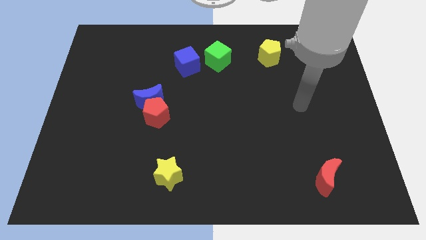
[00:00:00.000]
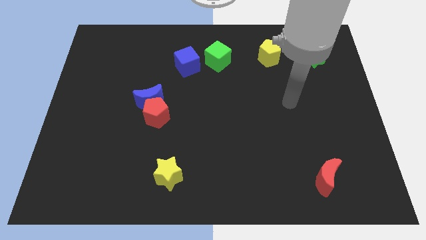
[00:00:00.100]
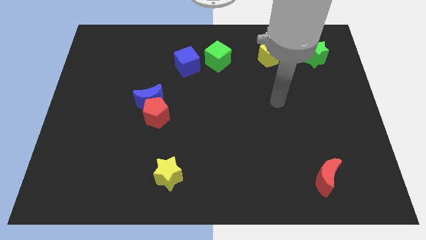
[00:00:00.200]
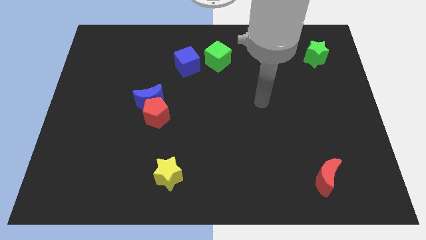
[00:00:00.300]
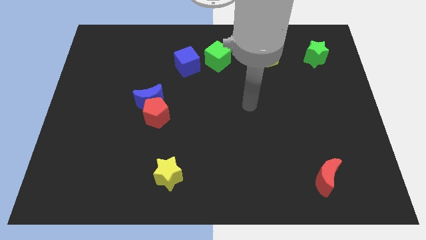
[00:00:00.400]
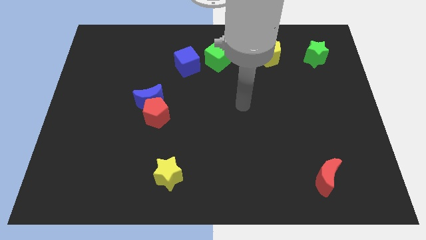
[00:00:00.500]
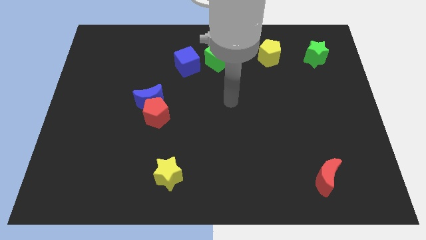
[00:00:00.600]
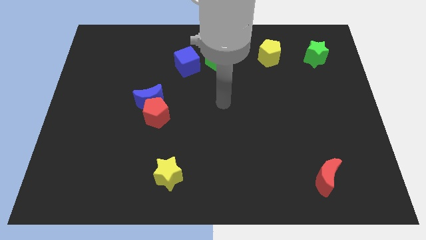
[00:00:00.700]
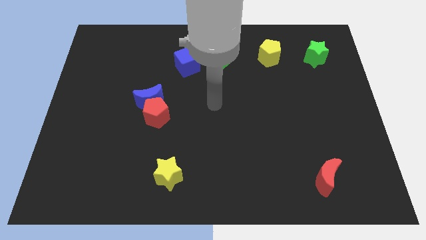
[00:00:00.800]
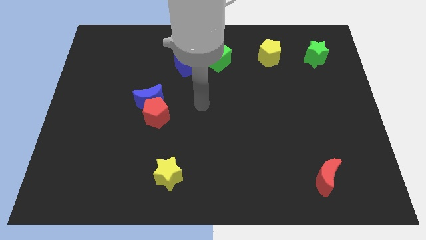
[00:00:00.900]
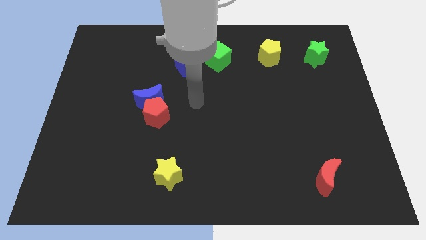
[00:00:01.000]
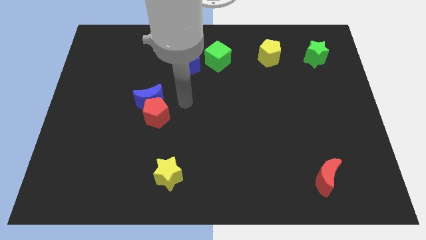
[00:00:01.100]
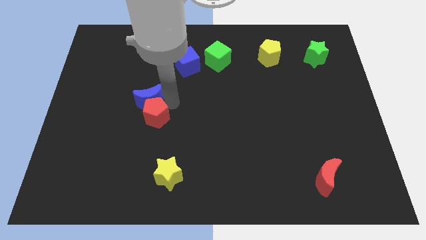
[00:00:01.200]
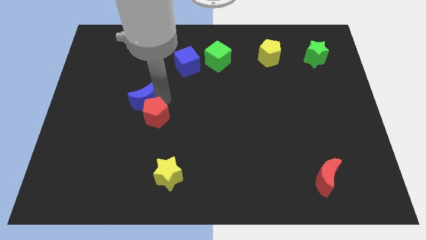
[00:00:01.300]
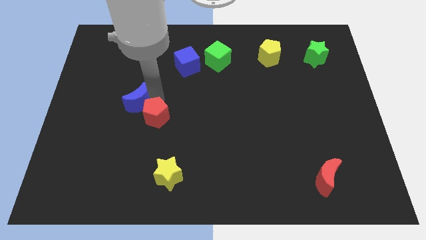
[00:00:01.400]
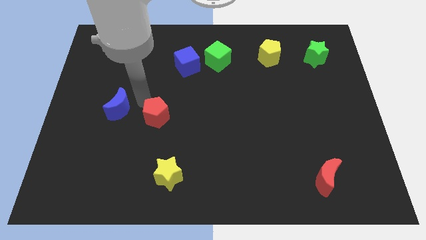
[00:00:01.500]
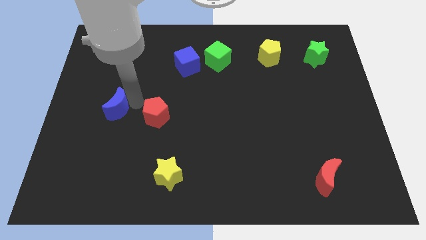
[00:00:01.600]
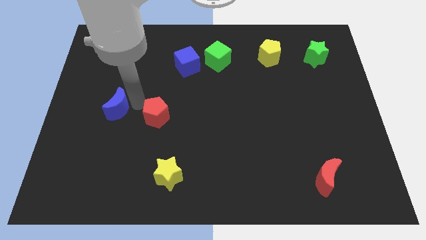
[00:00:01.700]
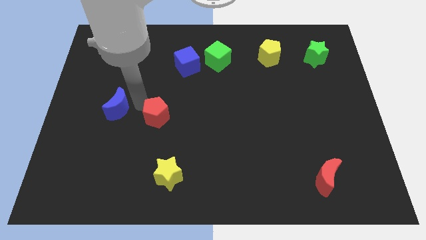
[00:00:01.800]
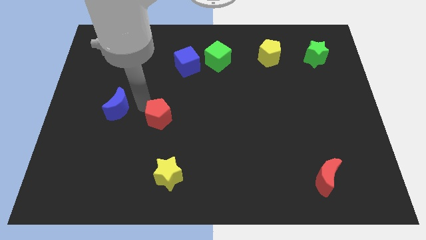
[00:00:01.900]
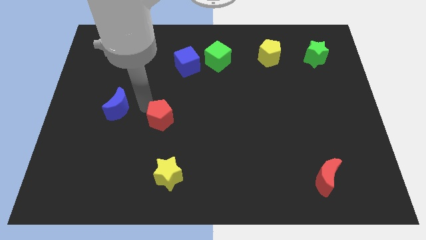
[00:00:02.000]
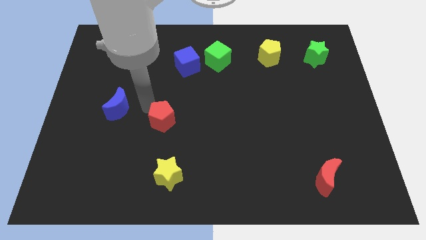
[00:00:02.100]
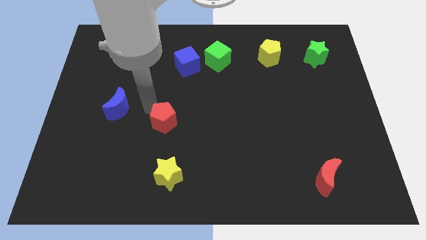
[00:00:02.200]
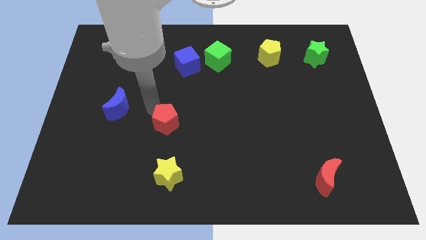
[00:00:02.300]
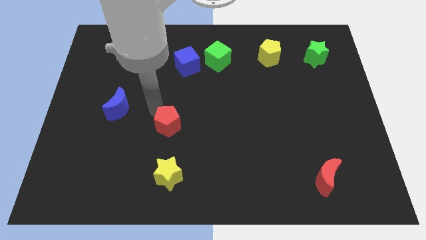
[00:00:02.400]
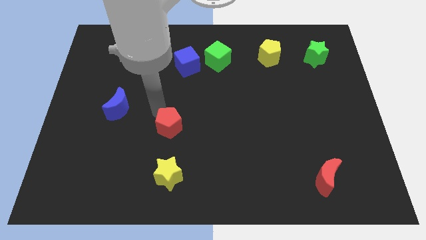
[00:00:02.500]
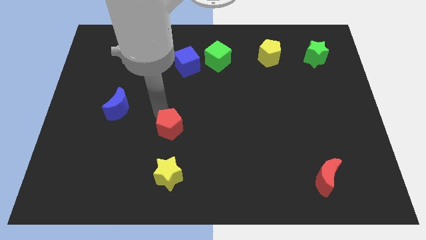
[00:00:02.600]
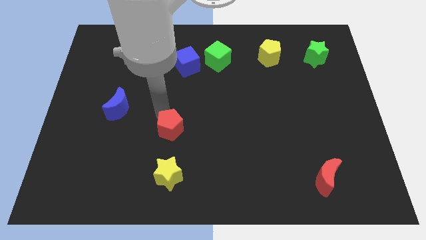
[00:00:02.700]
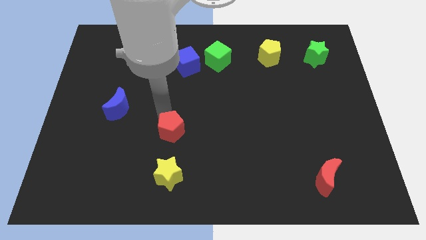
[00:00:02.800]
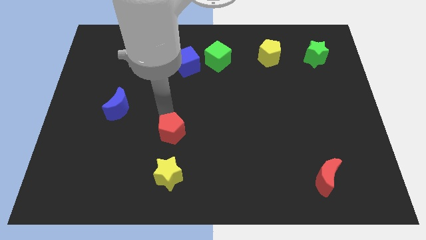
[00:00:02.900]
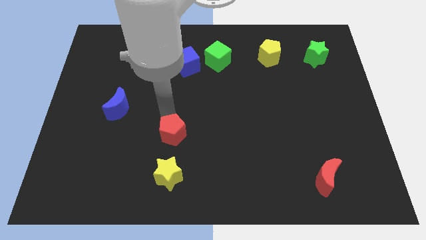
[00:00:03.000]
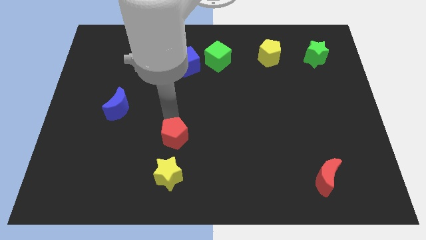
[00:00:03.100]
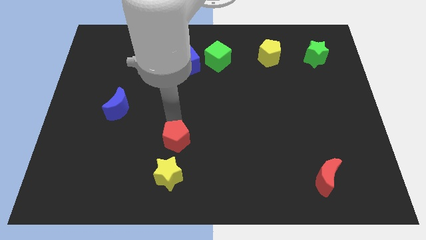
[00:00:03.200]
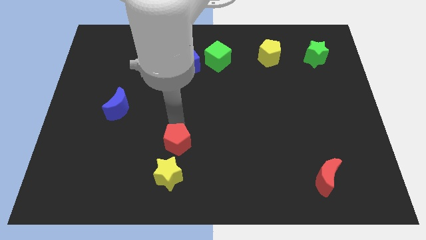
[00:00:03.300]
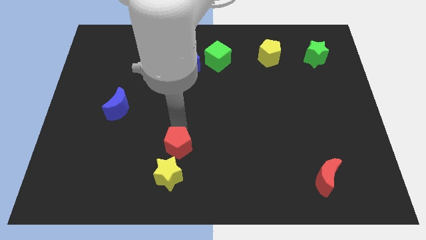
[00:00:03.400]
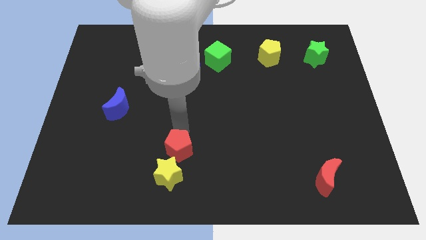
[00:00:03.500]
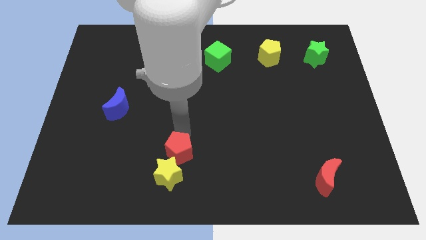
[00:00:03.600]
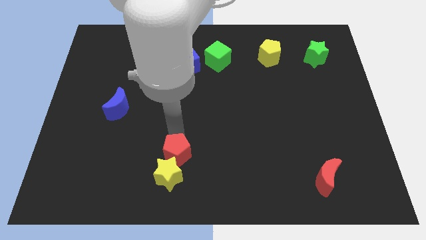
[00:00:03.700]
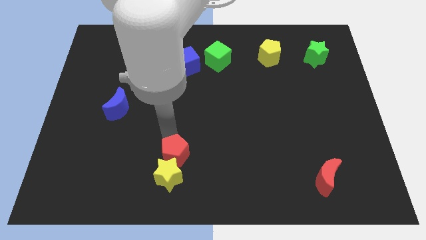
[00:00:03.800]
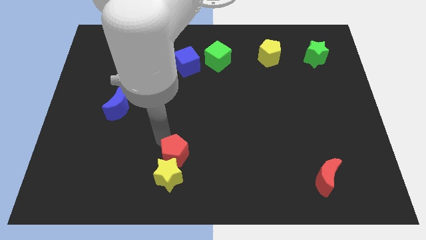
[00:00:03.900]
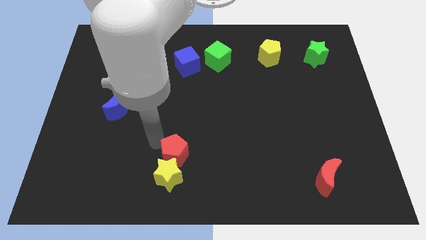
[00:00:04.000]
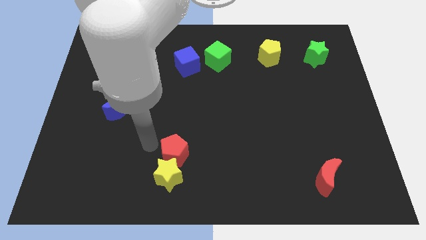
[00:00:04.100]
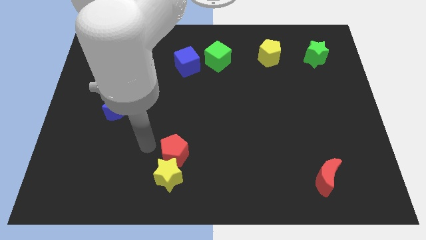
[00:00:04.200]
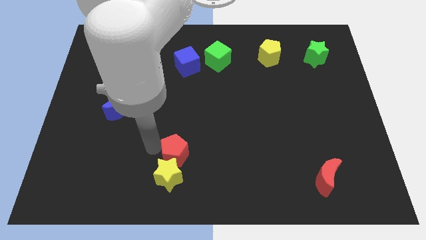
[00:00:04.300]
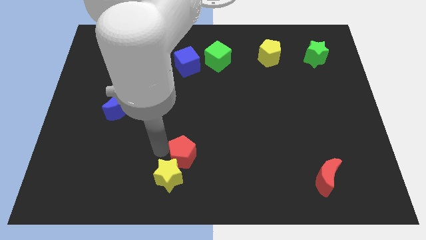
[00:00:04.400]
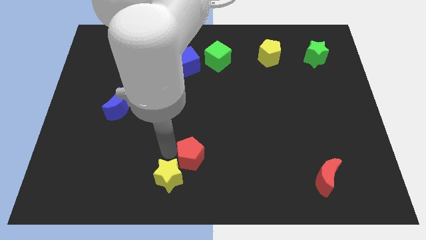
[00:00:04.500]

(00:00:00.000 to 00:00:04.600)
push the red pentagon to the right side of the yellow star

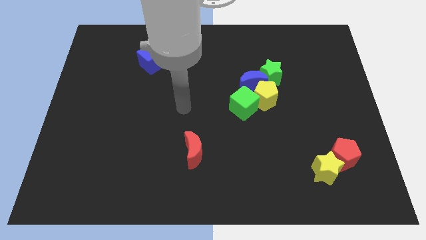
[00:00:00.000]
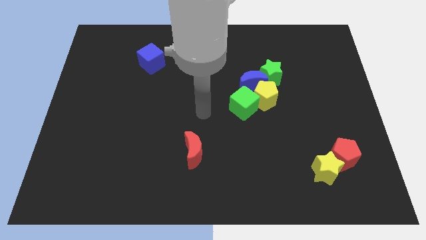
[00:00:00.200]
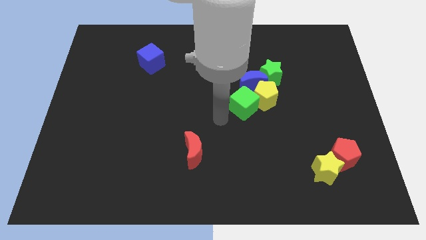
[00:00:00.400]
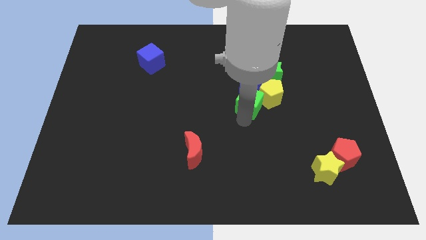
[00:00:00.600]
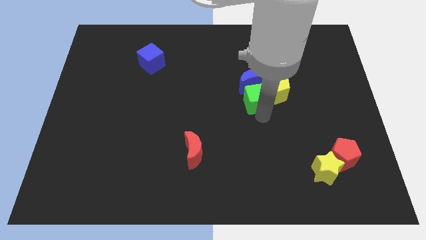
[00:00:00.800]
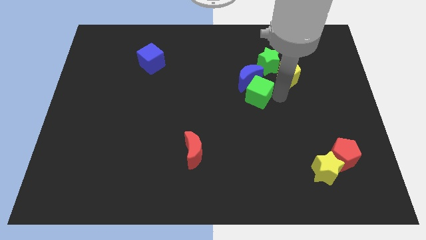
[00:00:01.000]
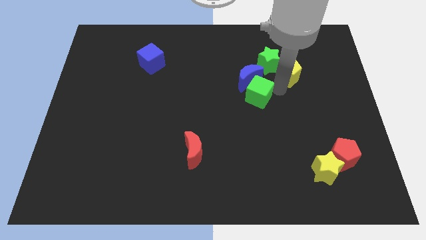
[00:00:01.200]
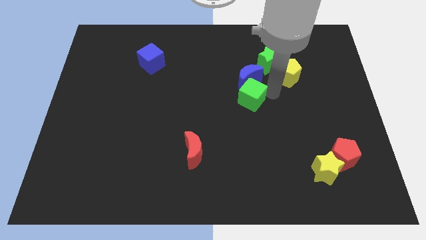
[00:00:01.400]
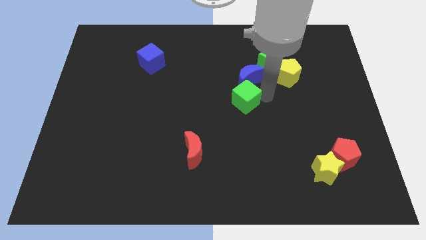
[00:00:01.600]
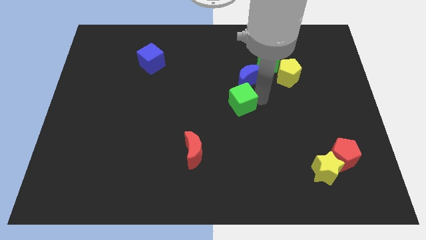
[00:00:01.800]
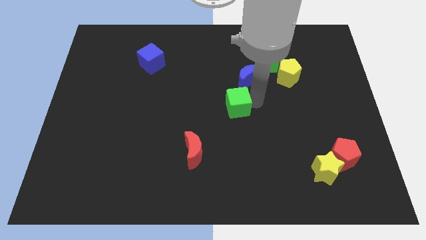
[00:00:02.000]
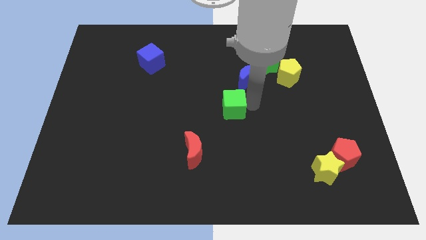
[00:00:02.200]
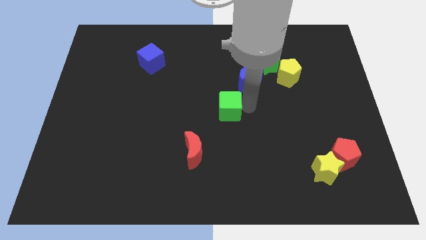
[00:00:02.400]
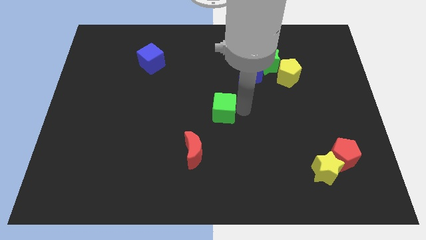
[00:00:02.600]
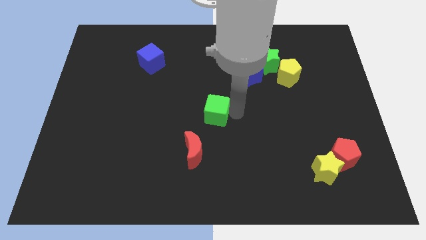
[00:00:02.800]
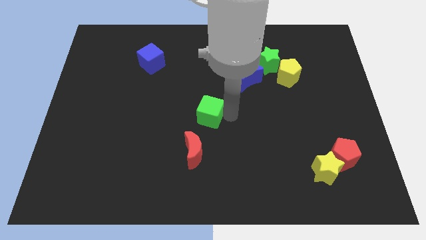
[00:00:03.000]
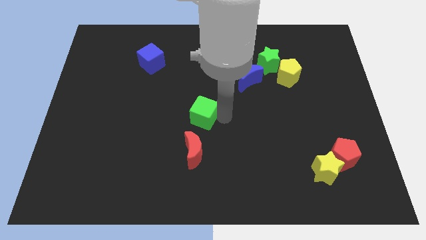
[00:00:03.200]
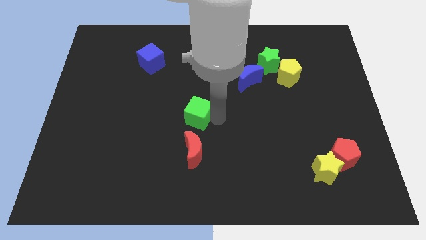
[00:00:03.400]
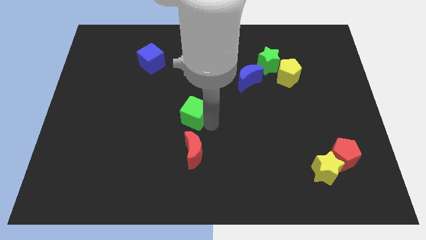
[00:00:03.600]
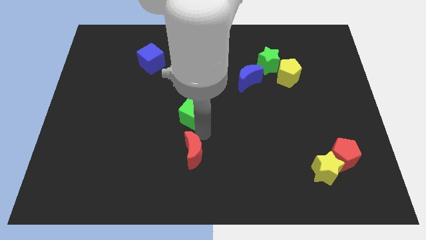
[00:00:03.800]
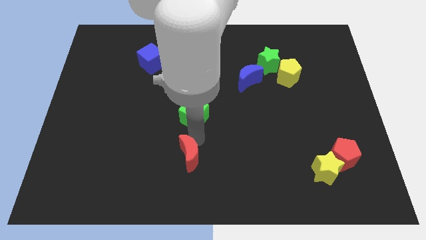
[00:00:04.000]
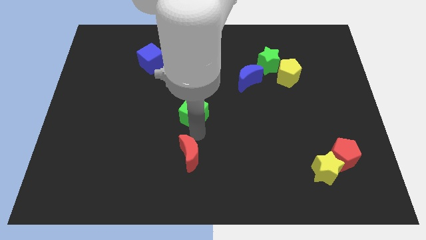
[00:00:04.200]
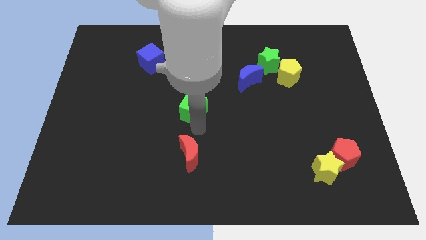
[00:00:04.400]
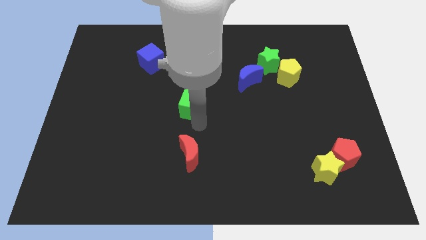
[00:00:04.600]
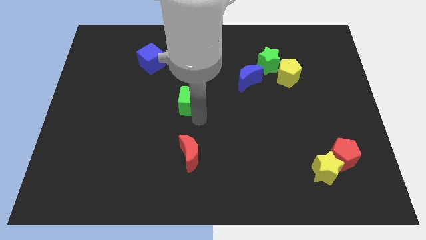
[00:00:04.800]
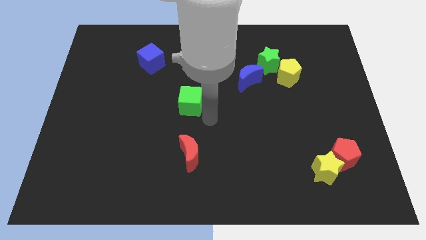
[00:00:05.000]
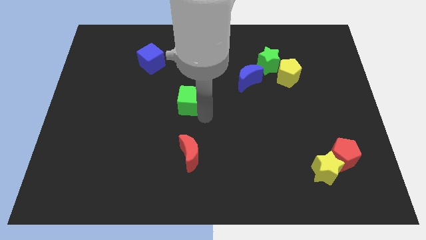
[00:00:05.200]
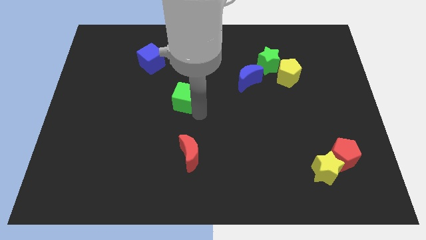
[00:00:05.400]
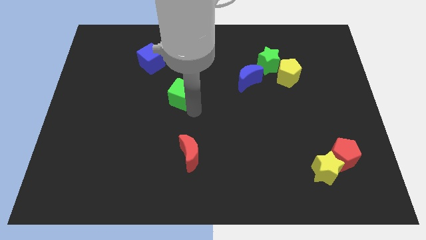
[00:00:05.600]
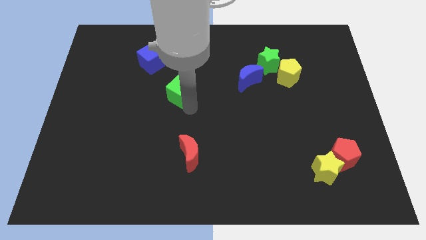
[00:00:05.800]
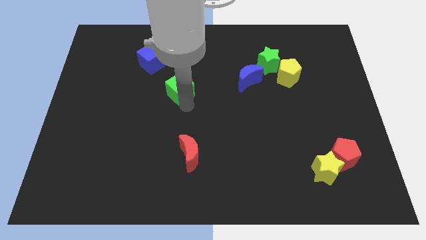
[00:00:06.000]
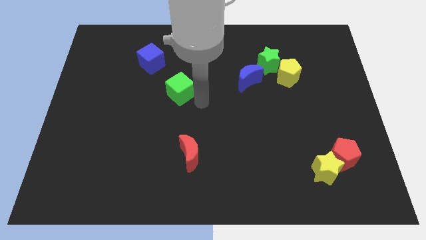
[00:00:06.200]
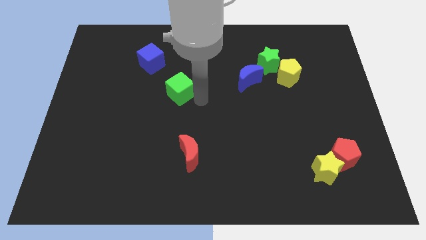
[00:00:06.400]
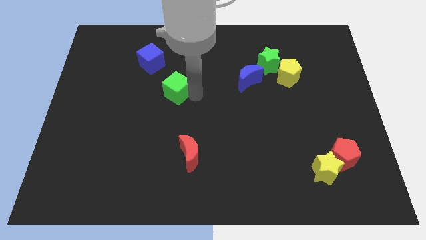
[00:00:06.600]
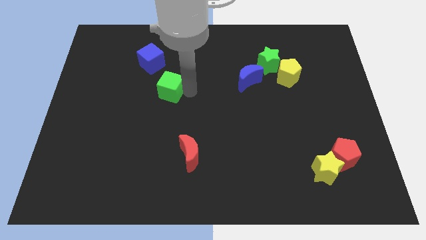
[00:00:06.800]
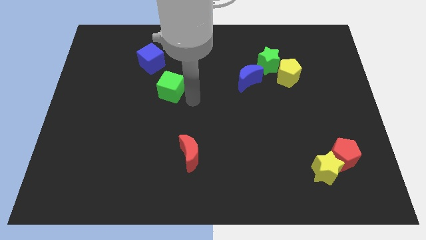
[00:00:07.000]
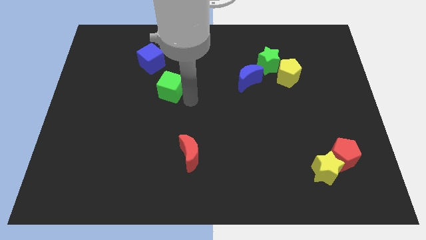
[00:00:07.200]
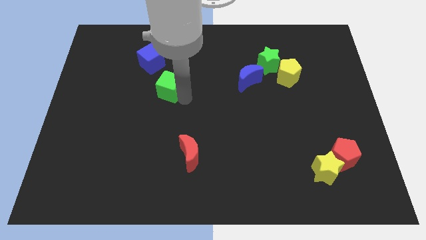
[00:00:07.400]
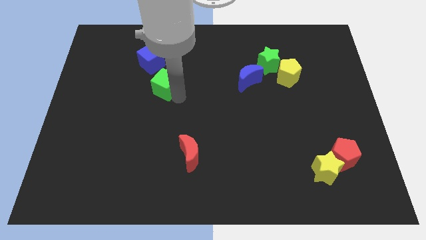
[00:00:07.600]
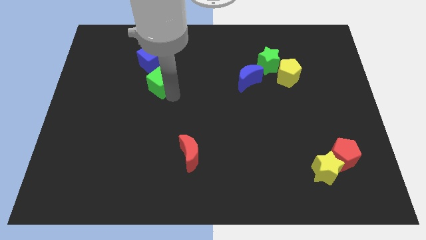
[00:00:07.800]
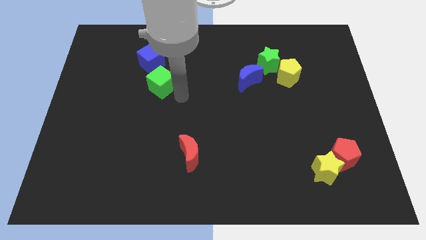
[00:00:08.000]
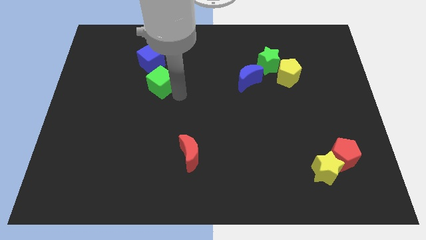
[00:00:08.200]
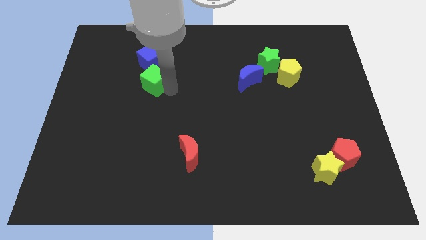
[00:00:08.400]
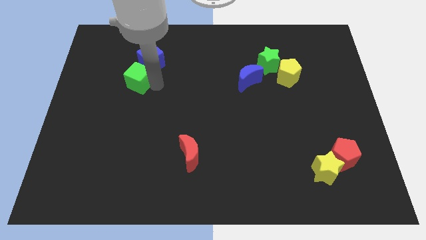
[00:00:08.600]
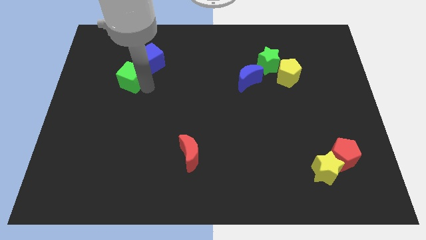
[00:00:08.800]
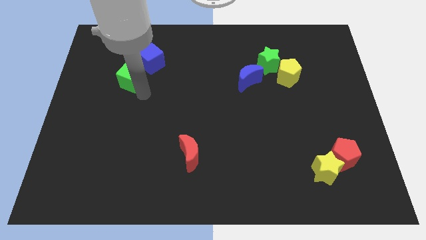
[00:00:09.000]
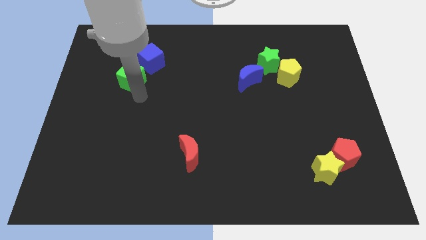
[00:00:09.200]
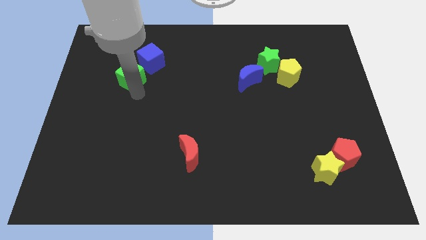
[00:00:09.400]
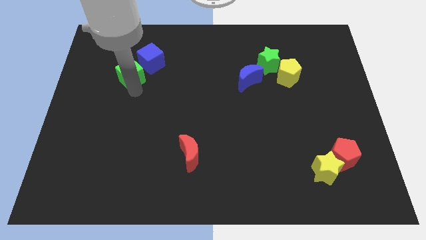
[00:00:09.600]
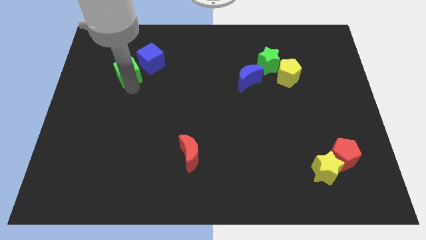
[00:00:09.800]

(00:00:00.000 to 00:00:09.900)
push the green cube to the left of the blue cube
